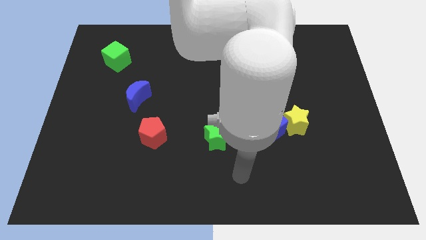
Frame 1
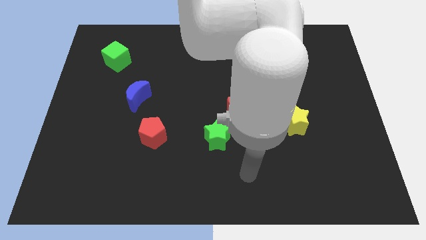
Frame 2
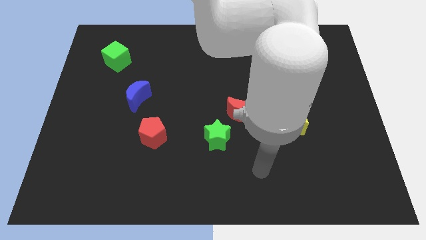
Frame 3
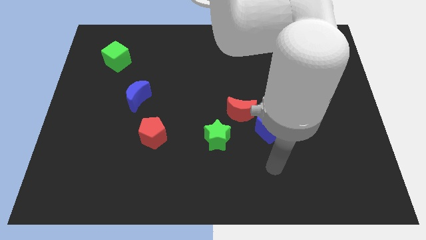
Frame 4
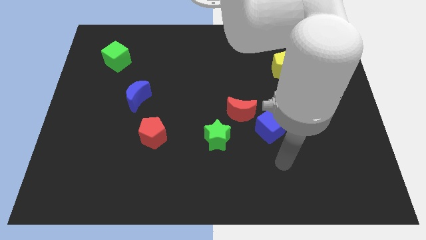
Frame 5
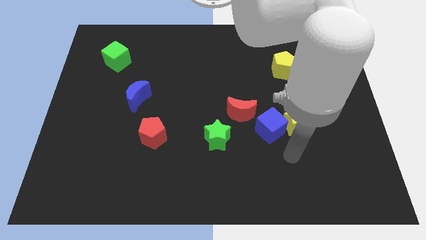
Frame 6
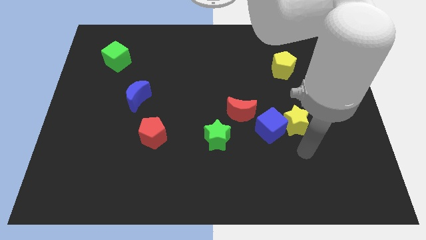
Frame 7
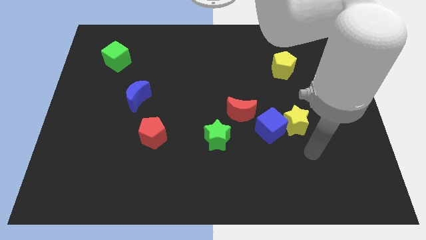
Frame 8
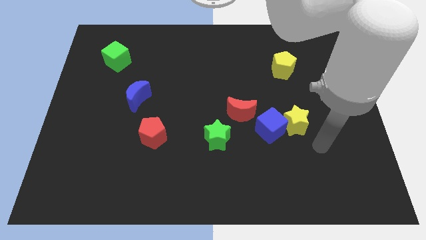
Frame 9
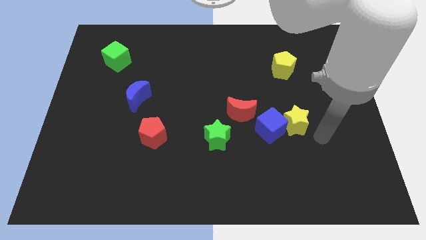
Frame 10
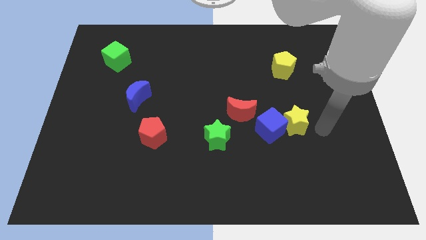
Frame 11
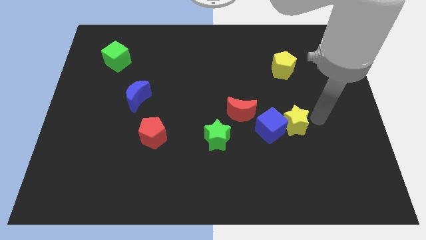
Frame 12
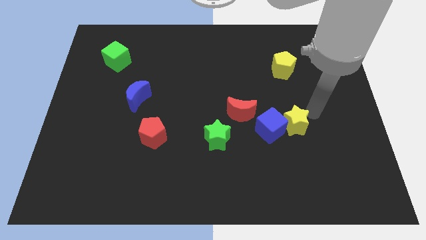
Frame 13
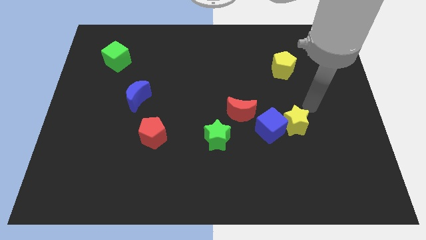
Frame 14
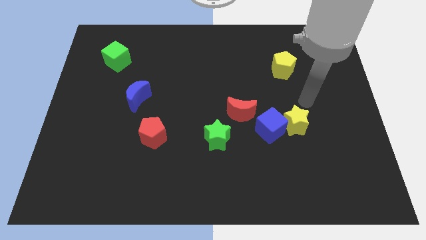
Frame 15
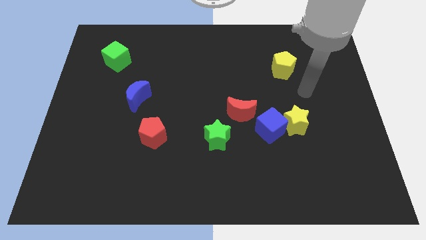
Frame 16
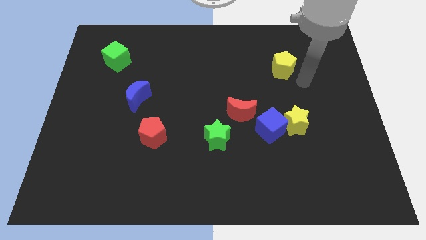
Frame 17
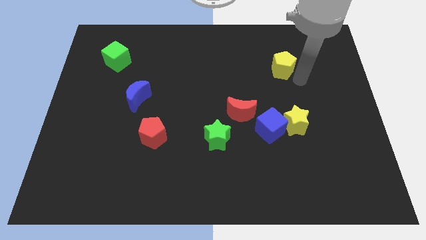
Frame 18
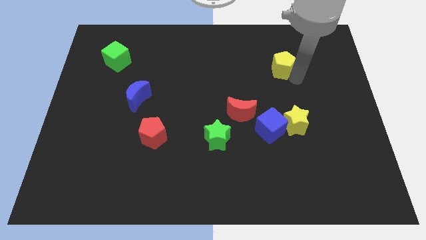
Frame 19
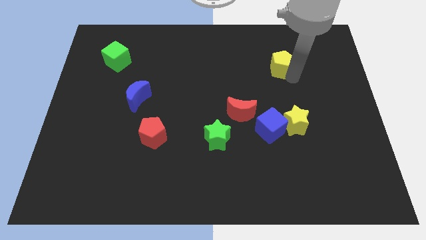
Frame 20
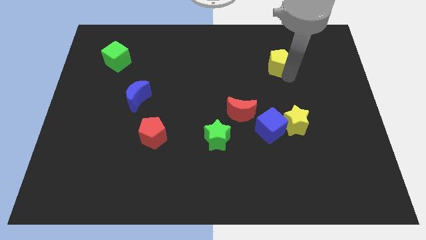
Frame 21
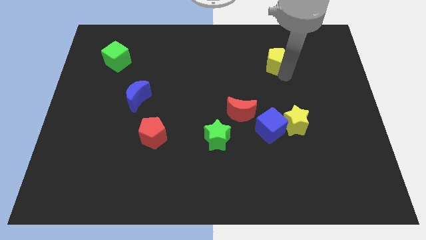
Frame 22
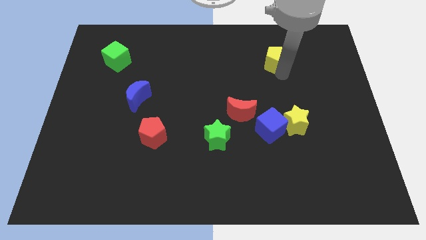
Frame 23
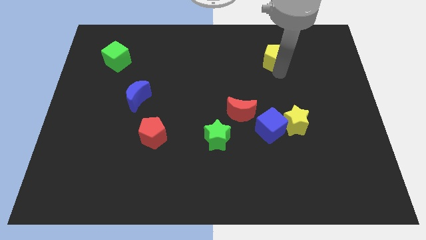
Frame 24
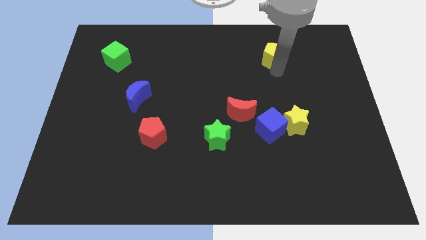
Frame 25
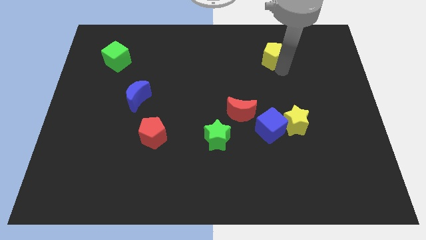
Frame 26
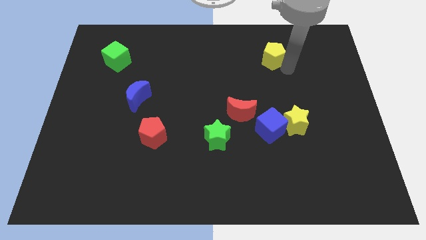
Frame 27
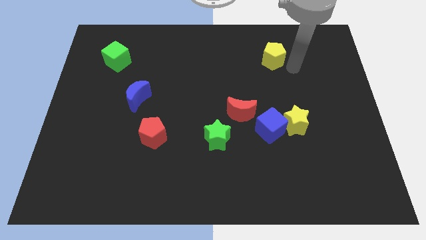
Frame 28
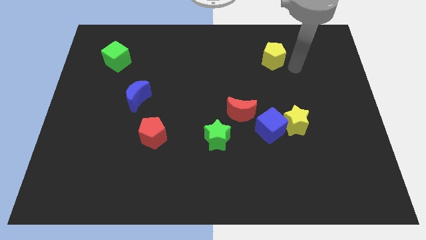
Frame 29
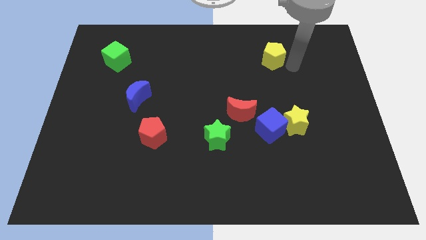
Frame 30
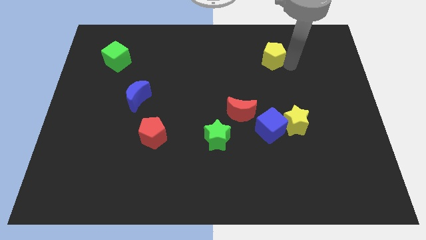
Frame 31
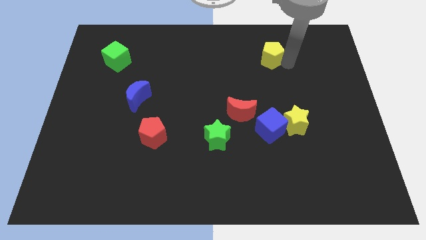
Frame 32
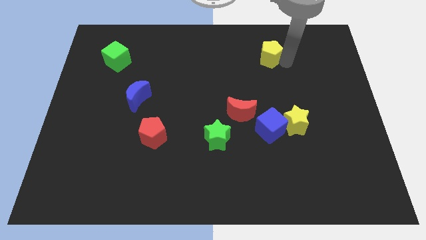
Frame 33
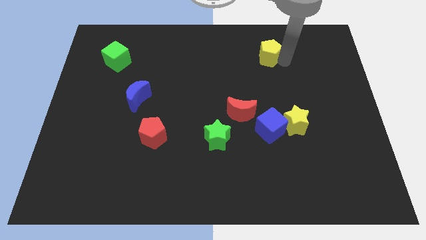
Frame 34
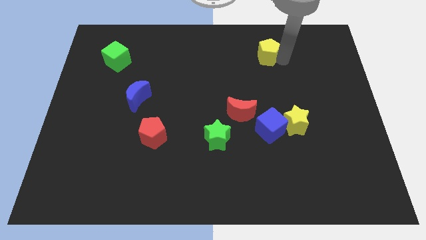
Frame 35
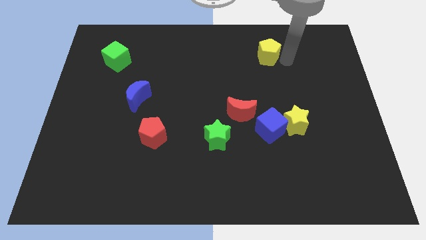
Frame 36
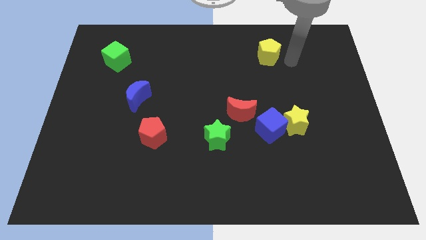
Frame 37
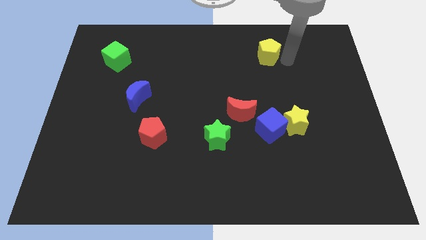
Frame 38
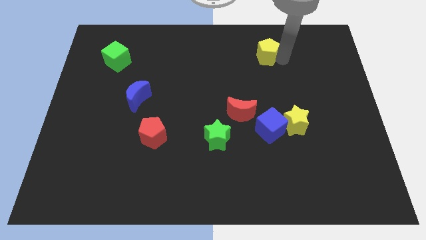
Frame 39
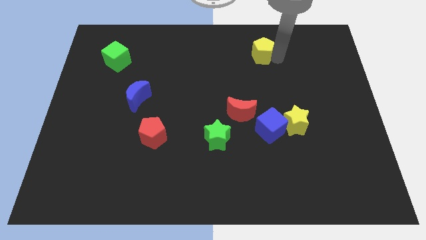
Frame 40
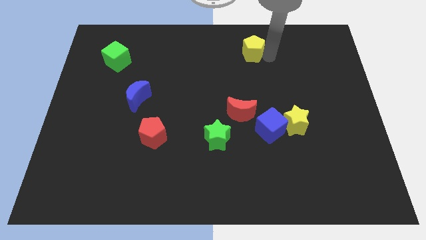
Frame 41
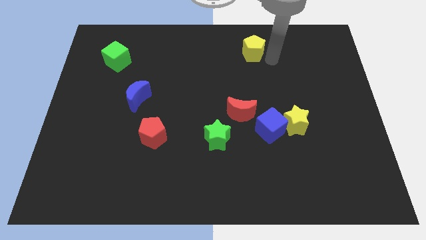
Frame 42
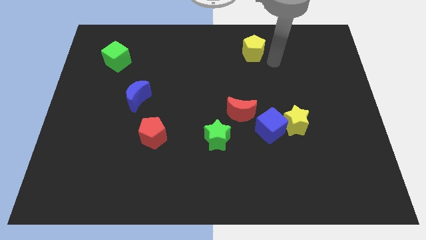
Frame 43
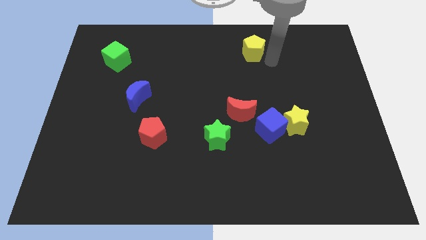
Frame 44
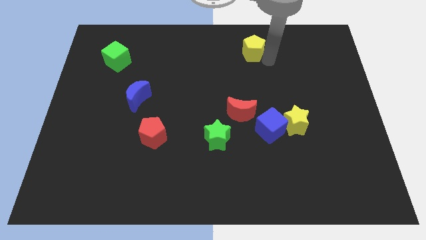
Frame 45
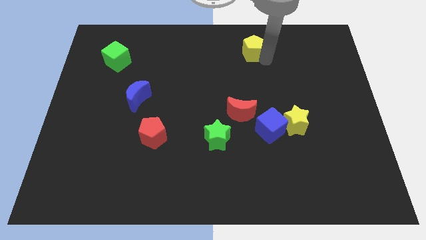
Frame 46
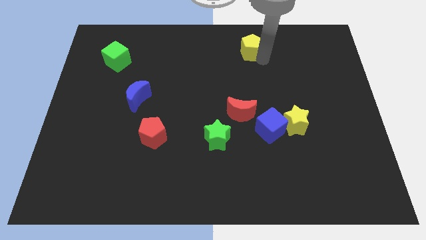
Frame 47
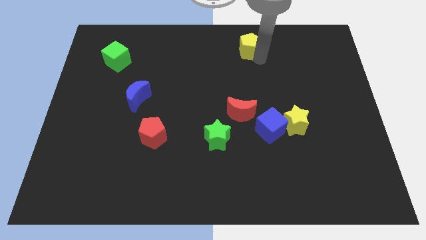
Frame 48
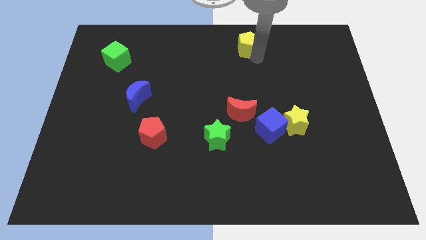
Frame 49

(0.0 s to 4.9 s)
put the yellow pentagon to the top side

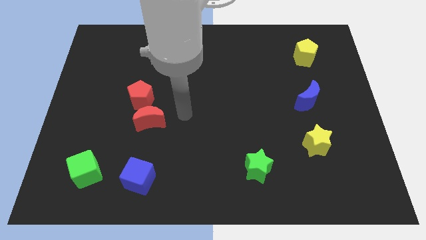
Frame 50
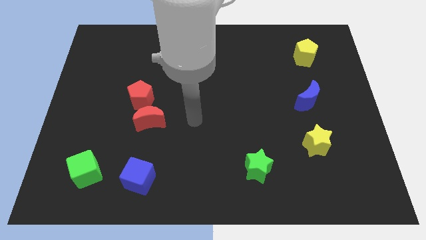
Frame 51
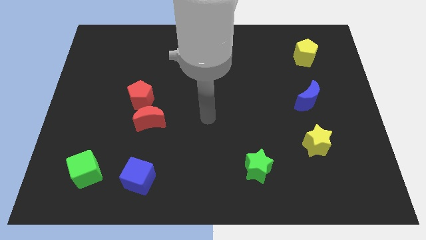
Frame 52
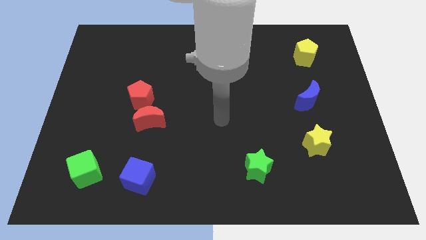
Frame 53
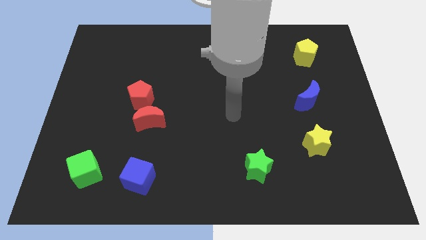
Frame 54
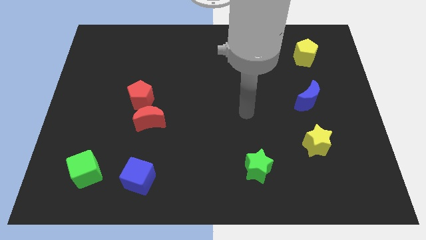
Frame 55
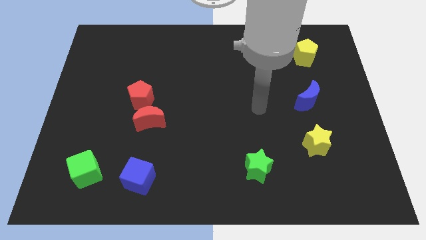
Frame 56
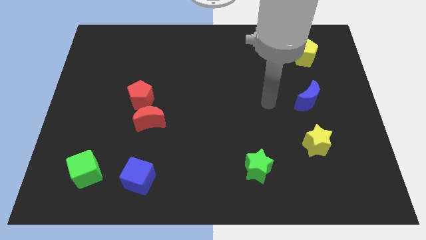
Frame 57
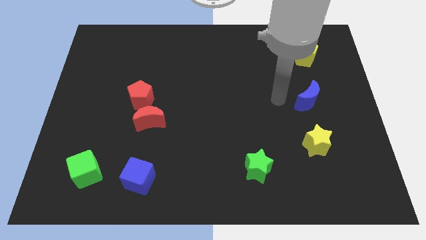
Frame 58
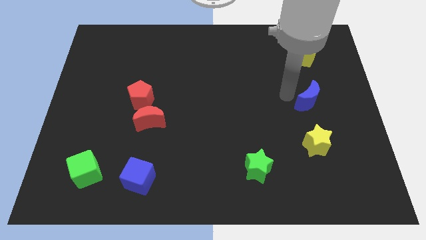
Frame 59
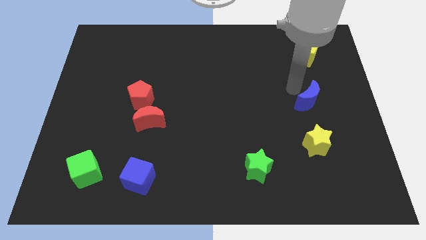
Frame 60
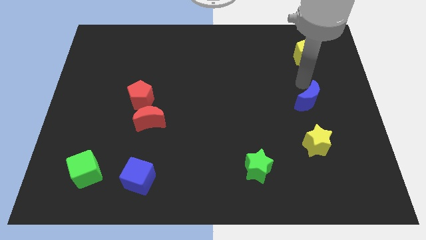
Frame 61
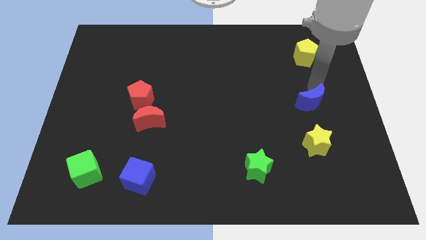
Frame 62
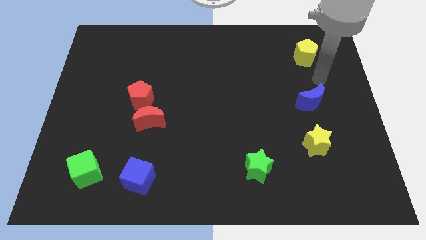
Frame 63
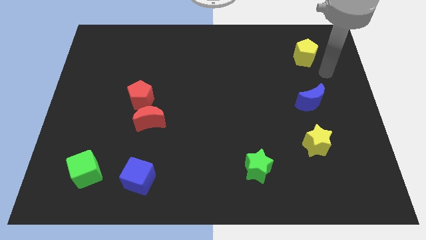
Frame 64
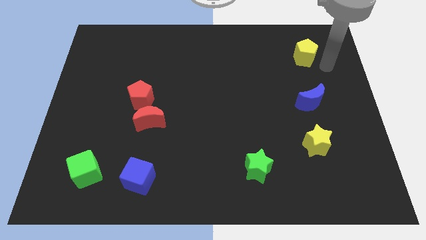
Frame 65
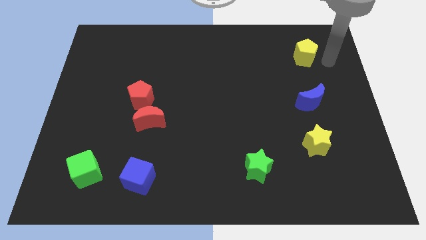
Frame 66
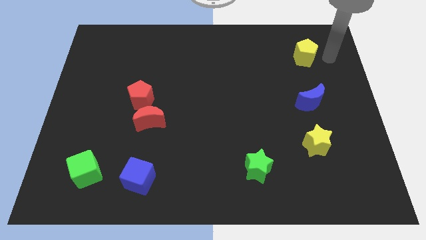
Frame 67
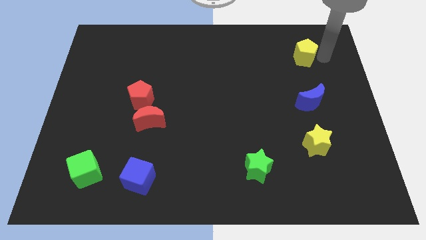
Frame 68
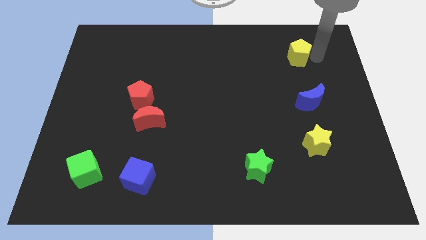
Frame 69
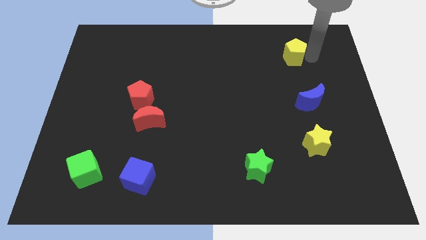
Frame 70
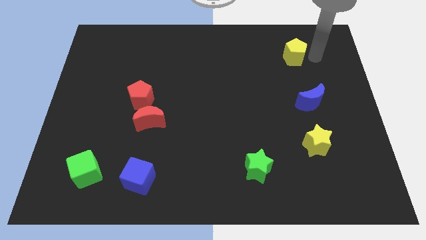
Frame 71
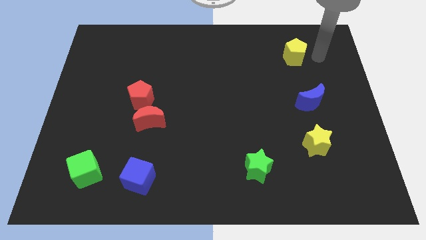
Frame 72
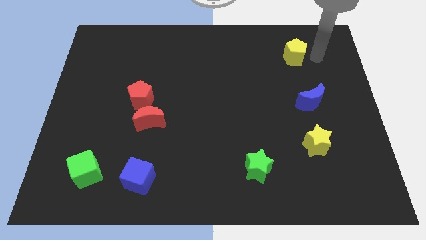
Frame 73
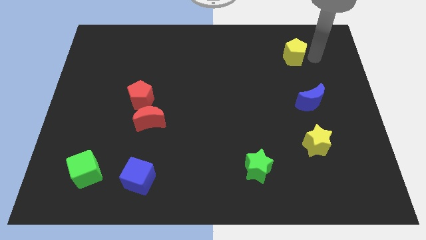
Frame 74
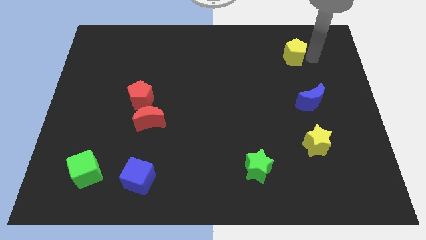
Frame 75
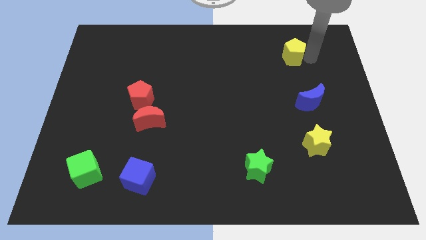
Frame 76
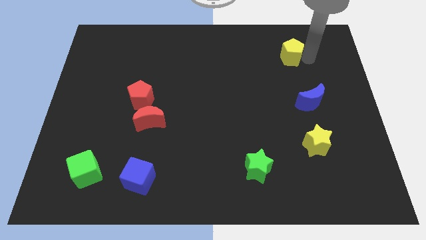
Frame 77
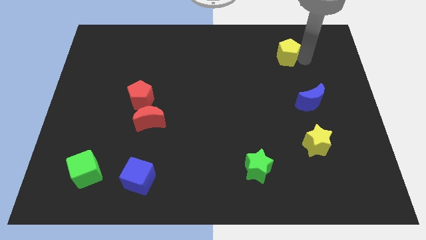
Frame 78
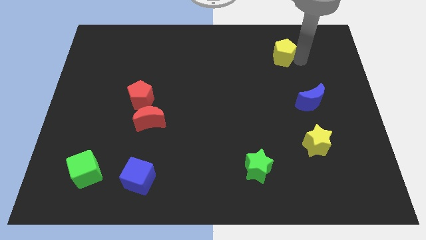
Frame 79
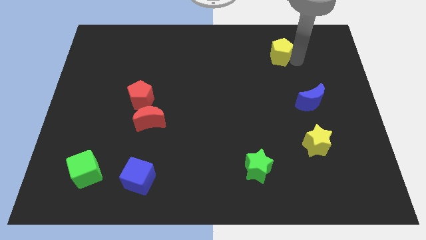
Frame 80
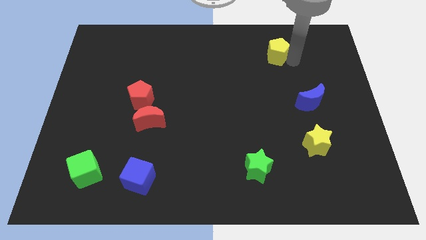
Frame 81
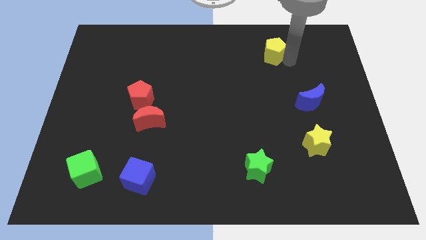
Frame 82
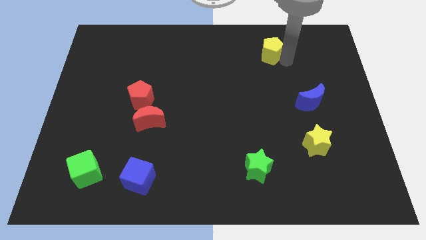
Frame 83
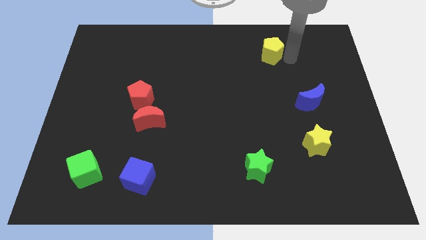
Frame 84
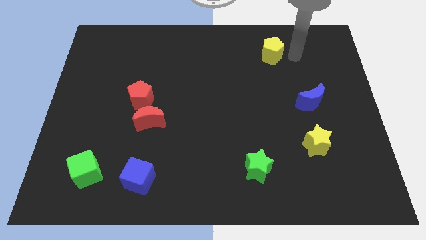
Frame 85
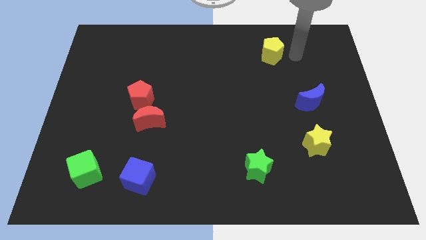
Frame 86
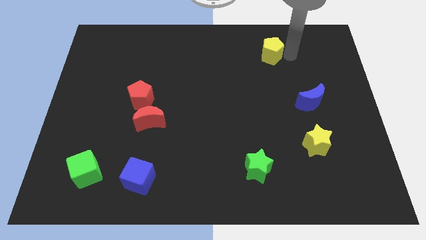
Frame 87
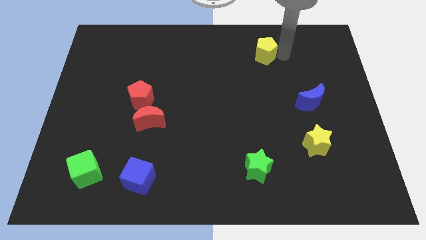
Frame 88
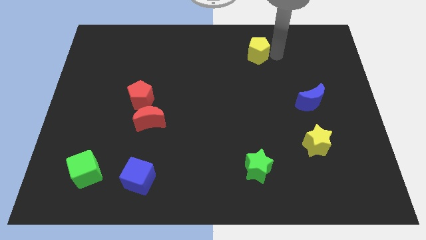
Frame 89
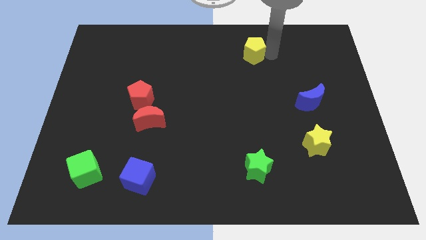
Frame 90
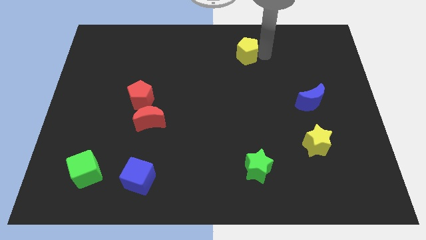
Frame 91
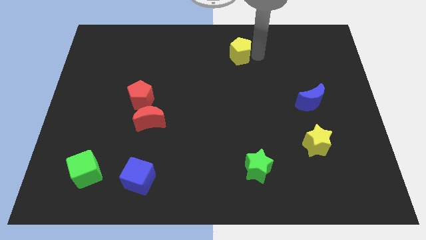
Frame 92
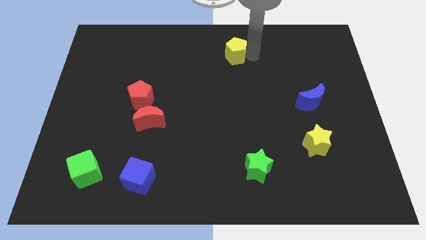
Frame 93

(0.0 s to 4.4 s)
move the yellow pentagon to the top side
